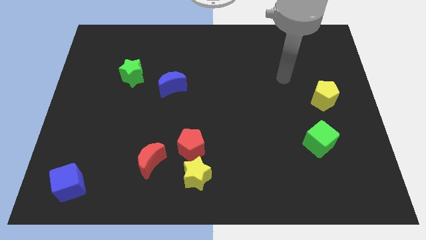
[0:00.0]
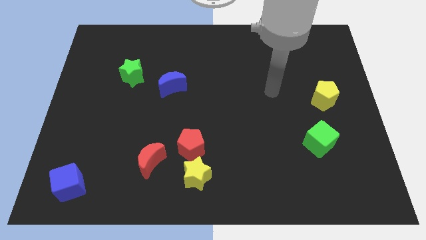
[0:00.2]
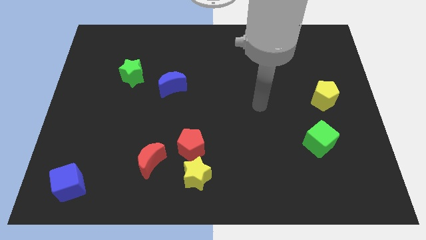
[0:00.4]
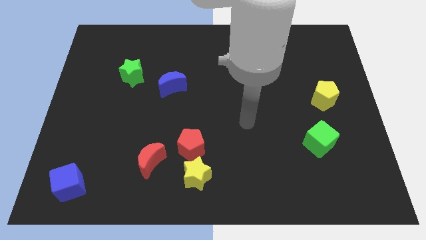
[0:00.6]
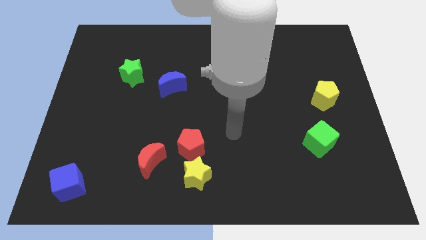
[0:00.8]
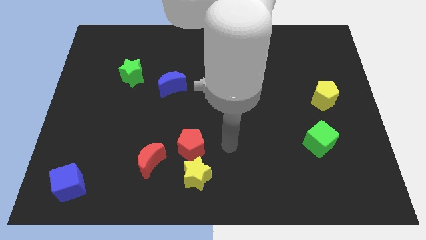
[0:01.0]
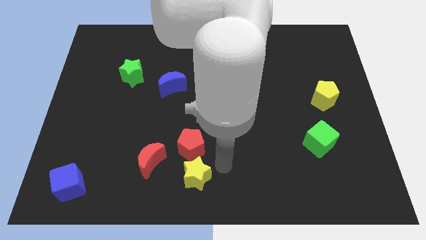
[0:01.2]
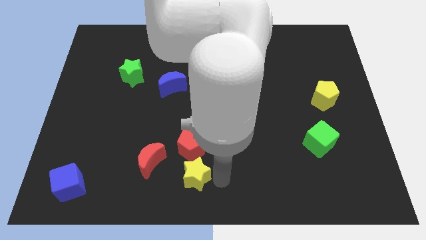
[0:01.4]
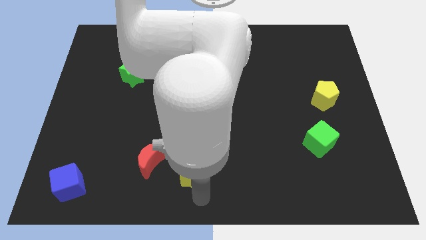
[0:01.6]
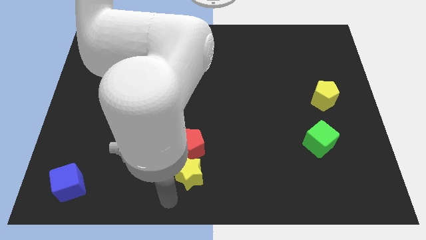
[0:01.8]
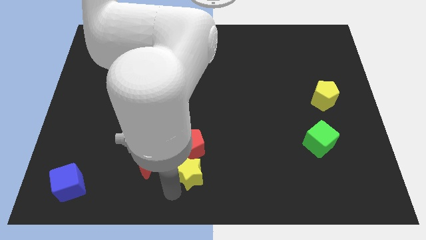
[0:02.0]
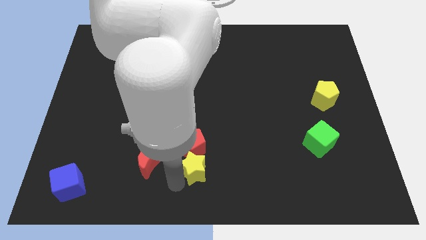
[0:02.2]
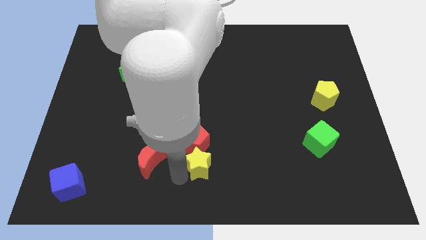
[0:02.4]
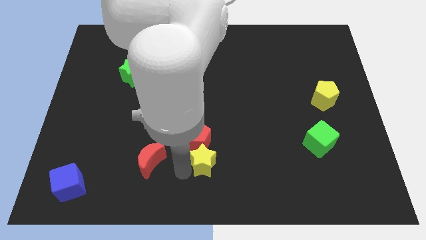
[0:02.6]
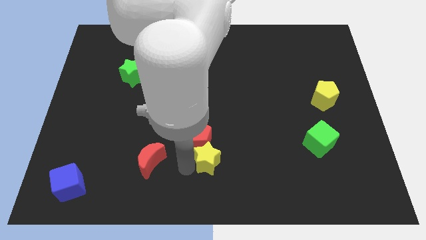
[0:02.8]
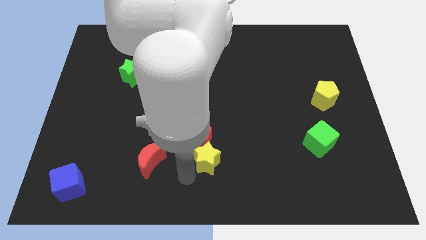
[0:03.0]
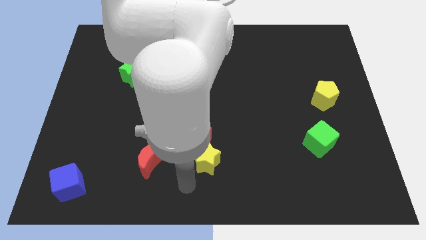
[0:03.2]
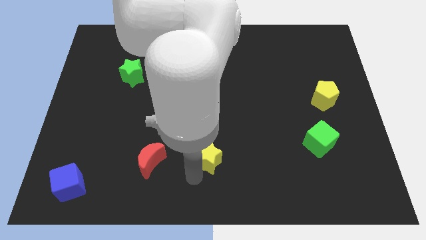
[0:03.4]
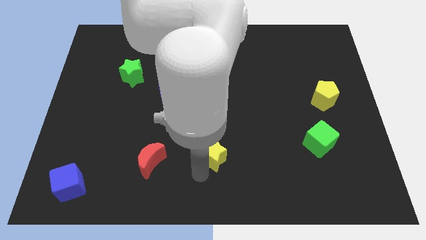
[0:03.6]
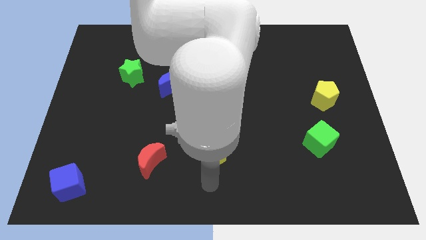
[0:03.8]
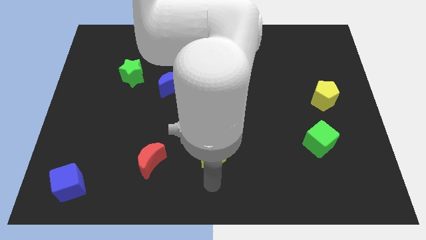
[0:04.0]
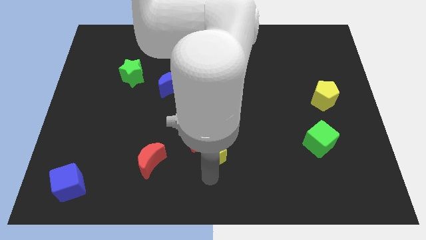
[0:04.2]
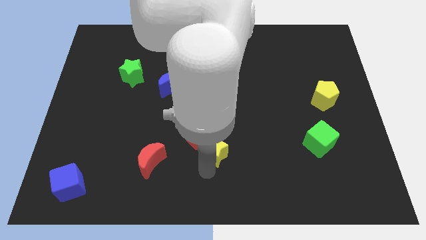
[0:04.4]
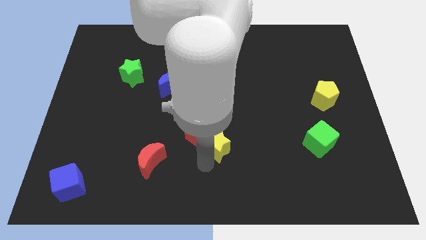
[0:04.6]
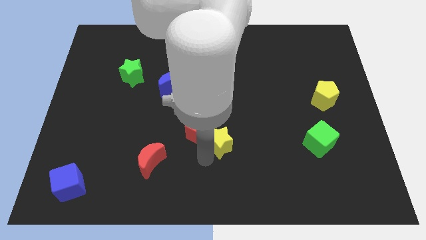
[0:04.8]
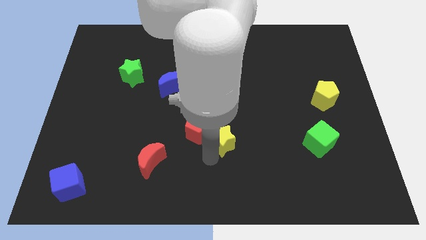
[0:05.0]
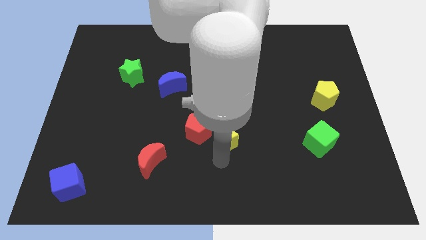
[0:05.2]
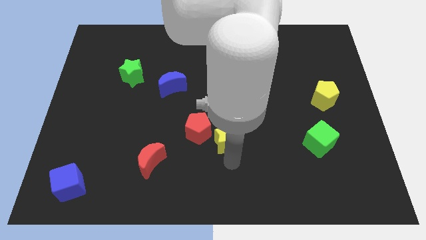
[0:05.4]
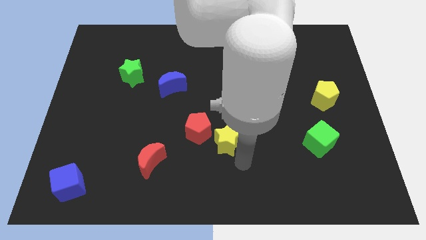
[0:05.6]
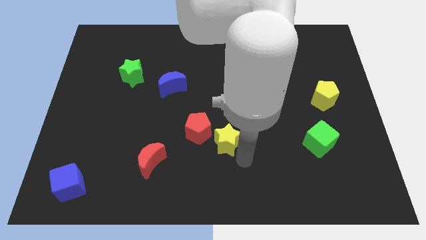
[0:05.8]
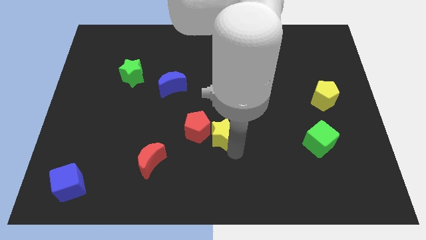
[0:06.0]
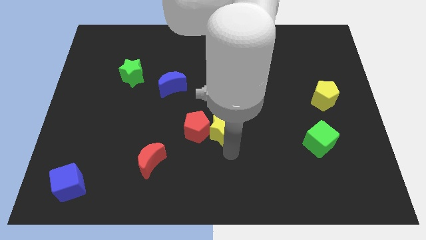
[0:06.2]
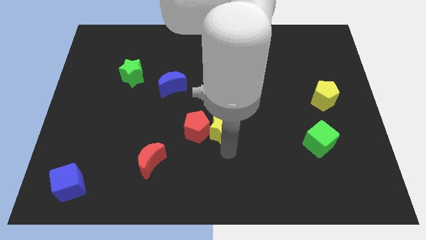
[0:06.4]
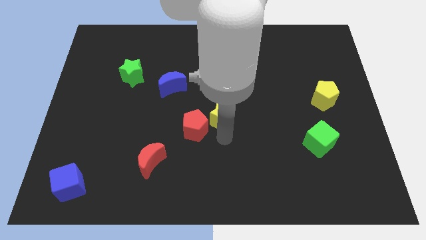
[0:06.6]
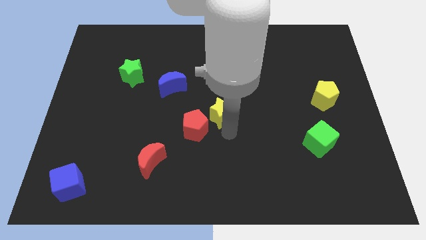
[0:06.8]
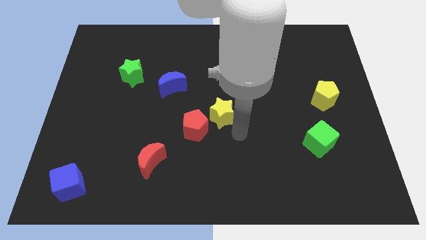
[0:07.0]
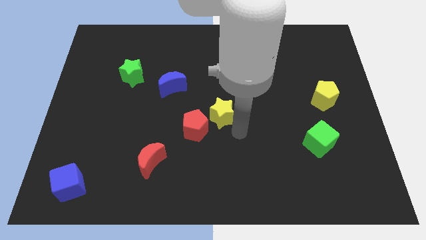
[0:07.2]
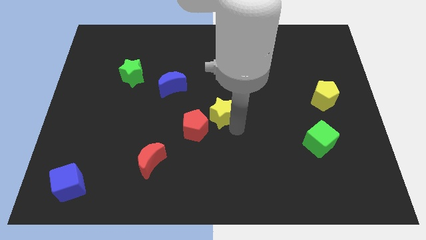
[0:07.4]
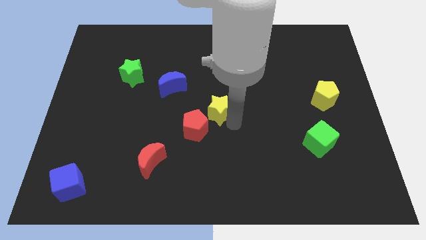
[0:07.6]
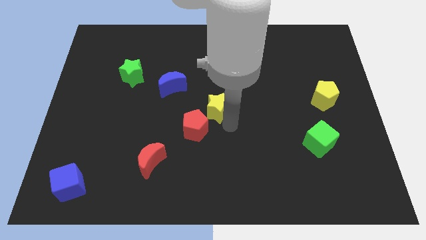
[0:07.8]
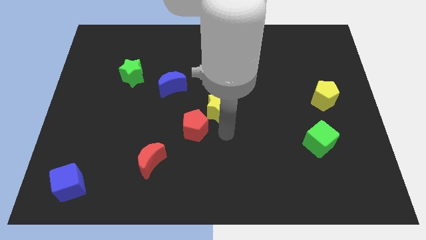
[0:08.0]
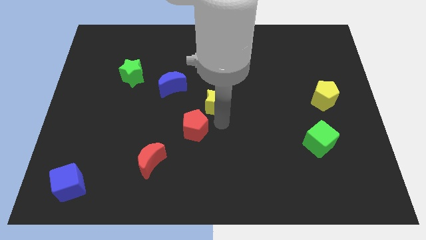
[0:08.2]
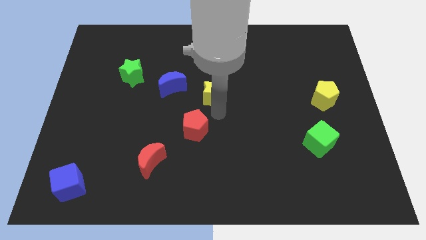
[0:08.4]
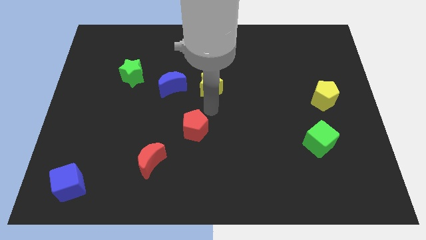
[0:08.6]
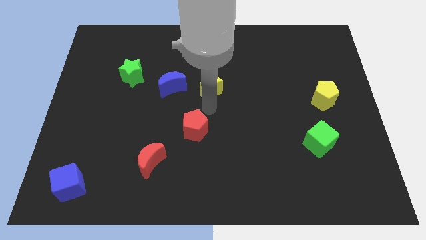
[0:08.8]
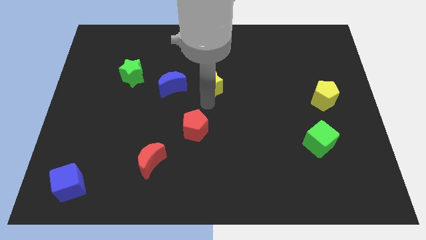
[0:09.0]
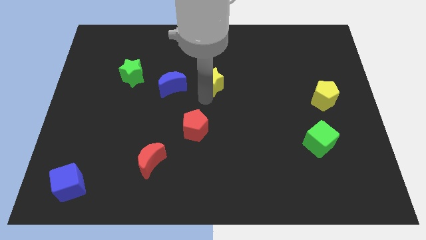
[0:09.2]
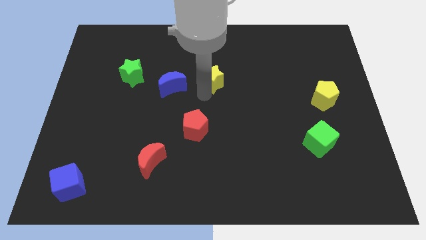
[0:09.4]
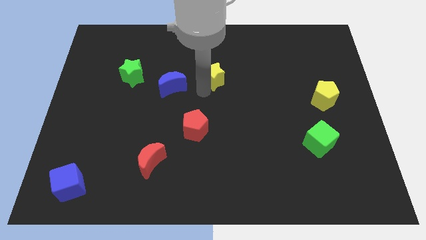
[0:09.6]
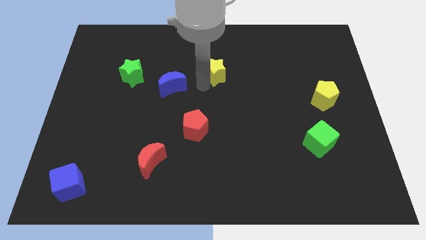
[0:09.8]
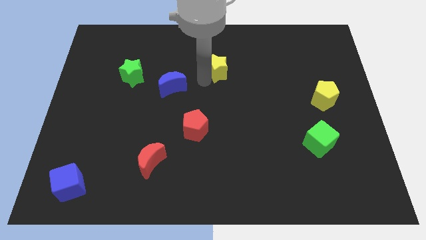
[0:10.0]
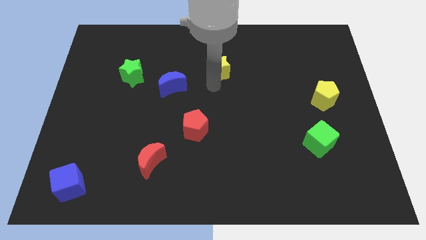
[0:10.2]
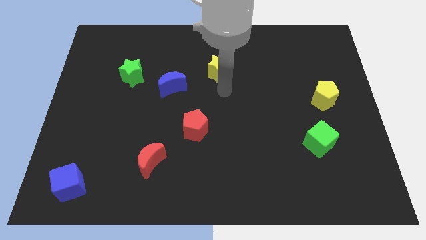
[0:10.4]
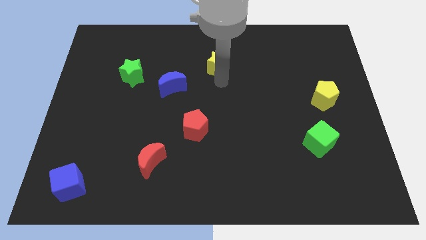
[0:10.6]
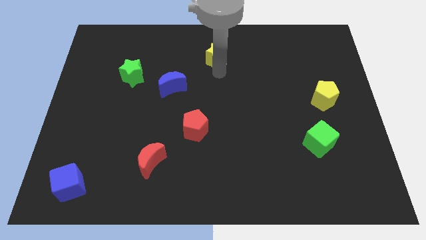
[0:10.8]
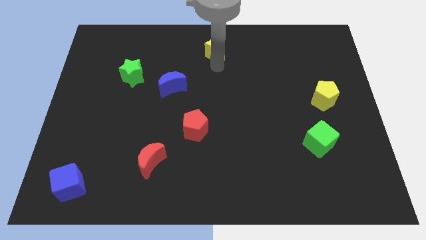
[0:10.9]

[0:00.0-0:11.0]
move the yellow star to the top side

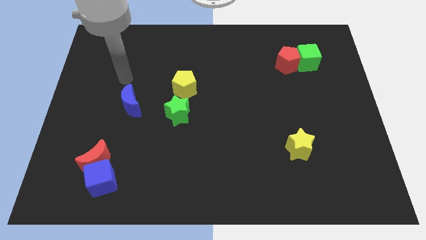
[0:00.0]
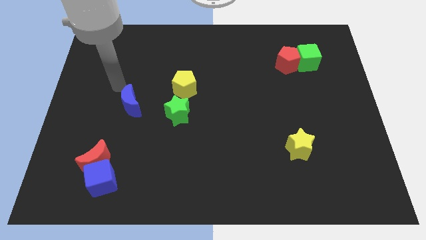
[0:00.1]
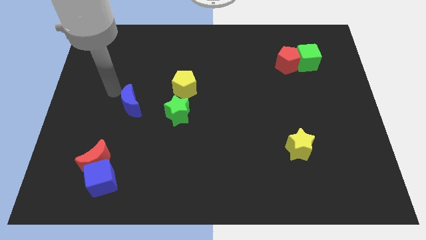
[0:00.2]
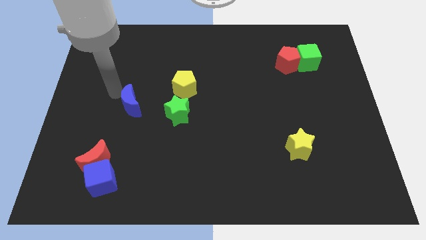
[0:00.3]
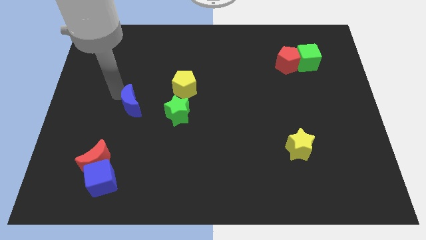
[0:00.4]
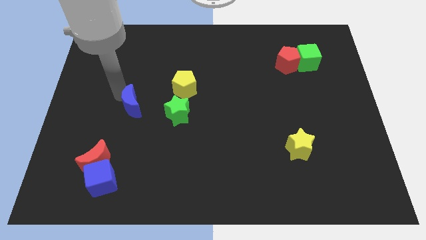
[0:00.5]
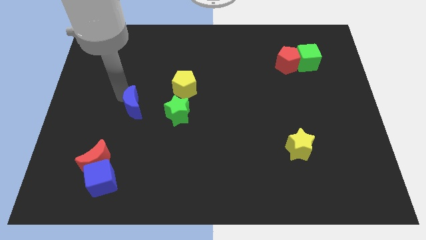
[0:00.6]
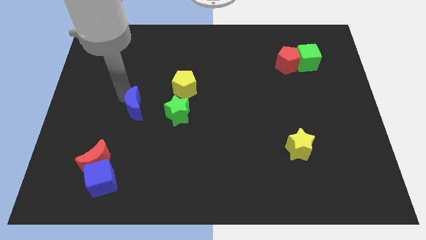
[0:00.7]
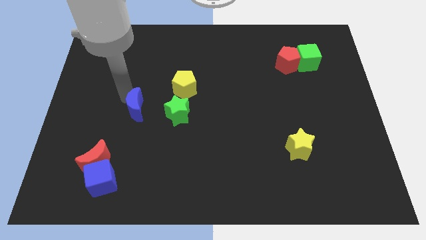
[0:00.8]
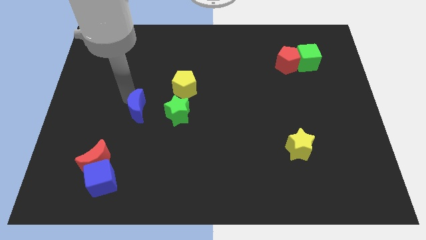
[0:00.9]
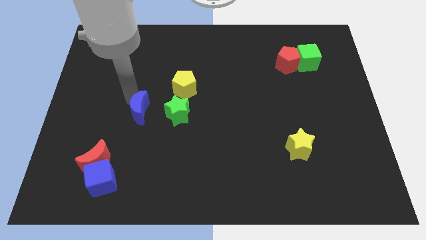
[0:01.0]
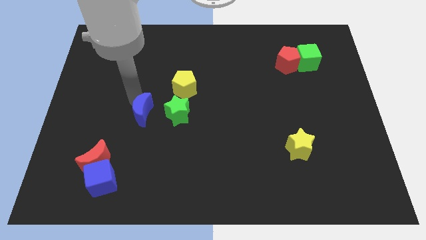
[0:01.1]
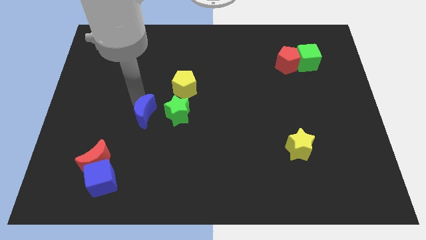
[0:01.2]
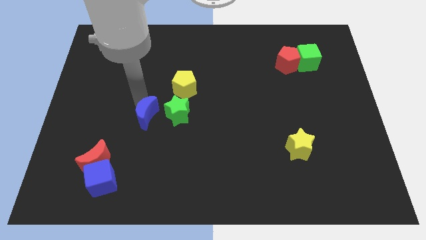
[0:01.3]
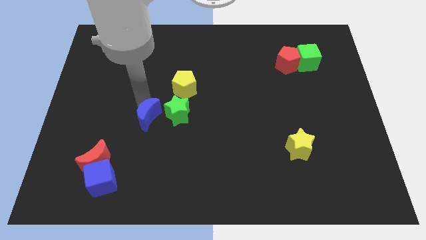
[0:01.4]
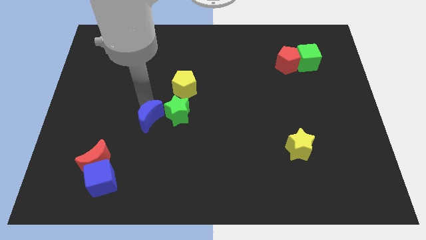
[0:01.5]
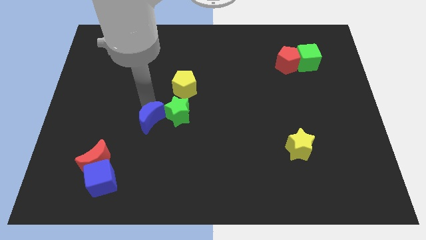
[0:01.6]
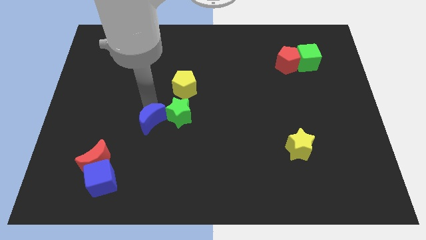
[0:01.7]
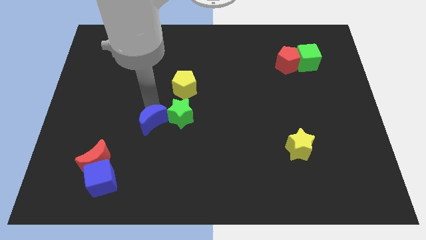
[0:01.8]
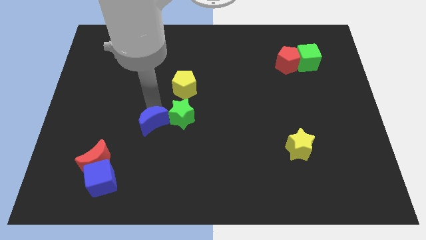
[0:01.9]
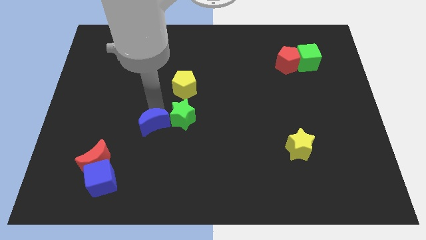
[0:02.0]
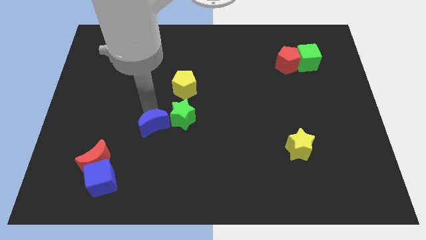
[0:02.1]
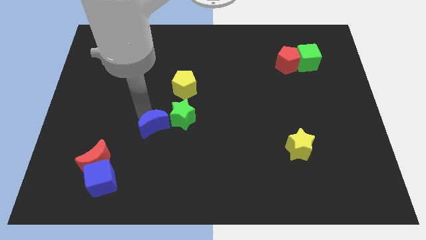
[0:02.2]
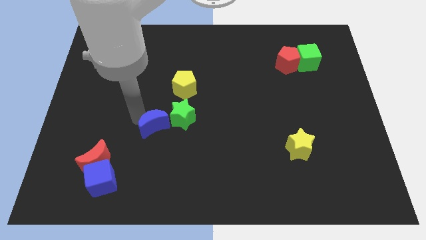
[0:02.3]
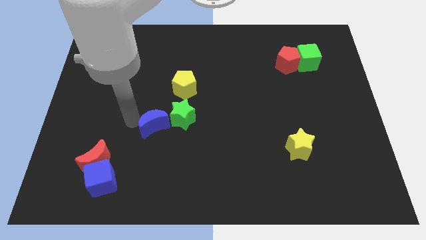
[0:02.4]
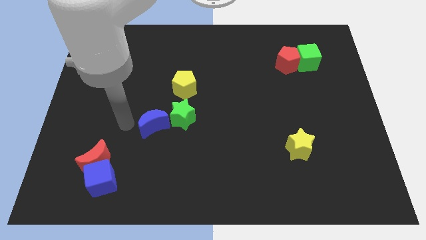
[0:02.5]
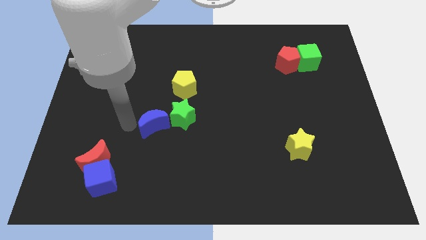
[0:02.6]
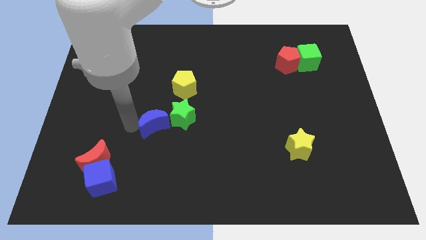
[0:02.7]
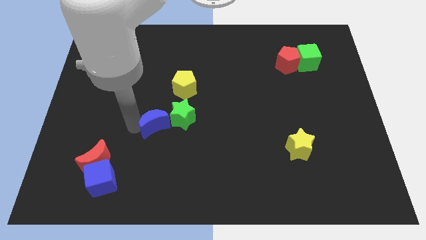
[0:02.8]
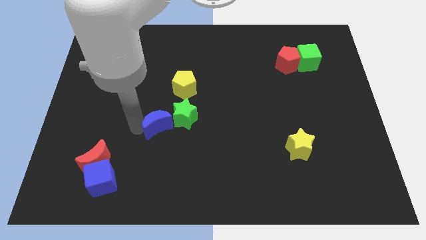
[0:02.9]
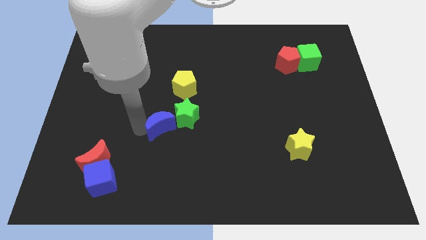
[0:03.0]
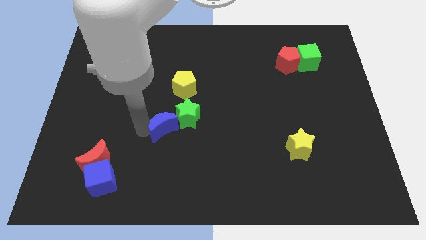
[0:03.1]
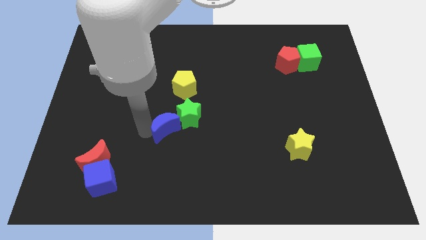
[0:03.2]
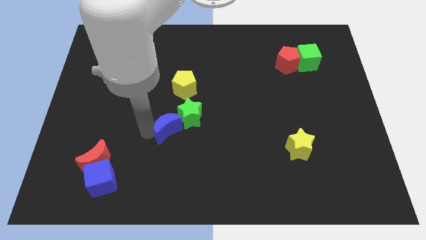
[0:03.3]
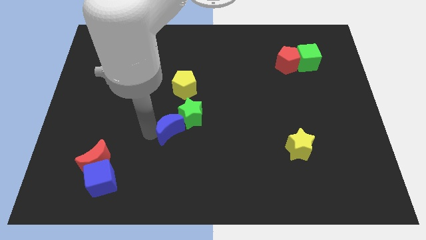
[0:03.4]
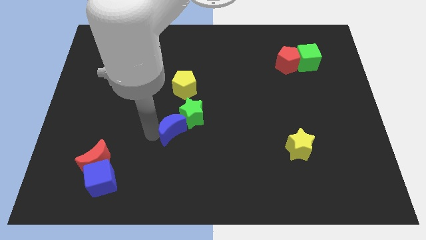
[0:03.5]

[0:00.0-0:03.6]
push the blue moon to the middle of the board
